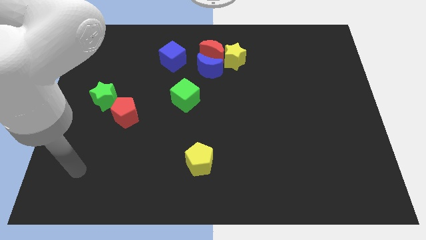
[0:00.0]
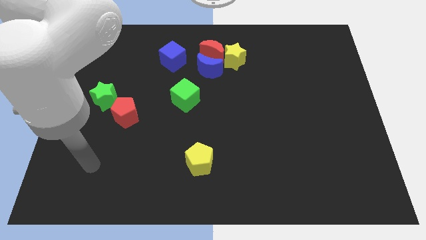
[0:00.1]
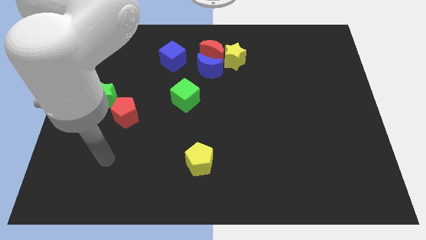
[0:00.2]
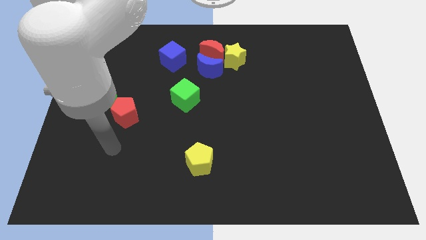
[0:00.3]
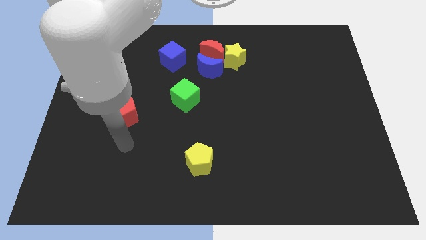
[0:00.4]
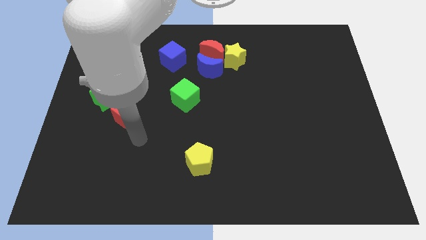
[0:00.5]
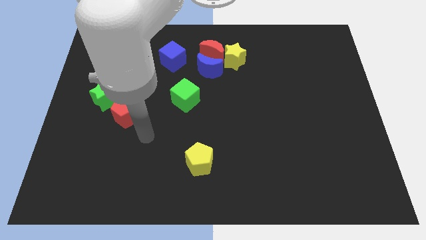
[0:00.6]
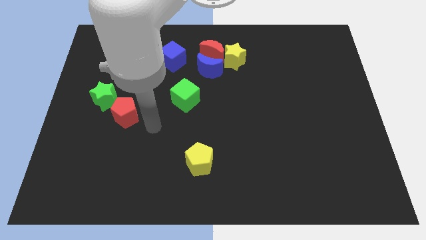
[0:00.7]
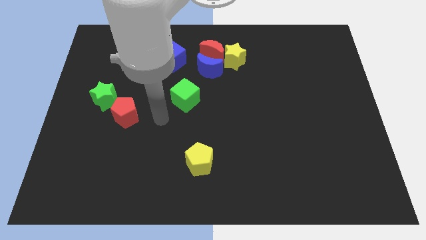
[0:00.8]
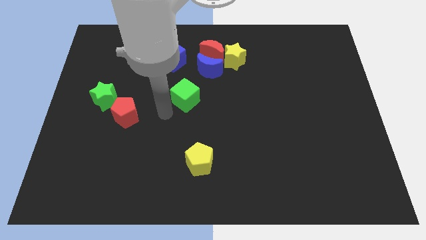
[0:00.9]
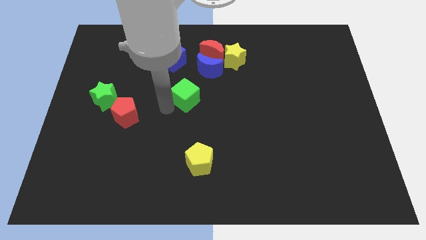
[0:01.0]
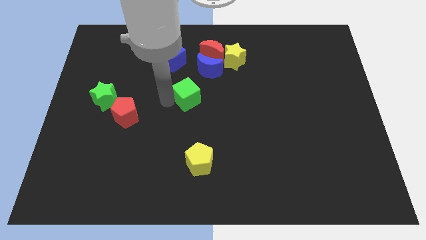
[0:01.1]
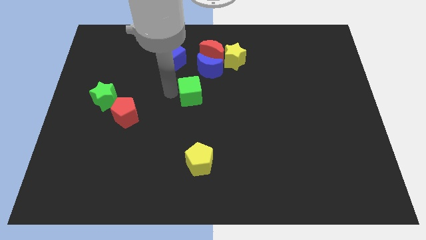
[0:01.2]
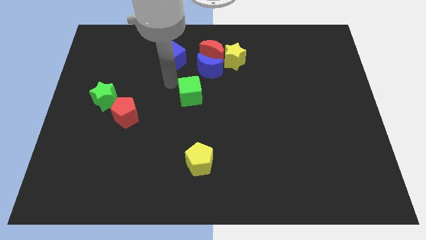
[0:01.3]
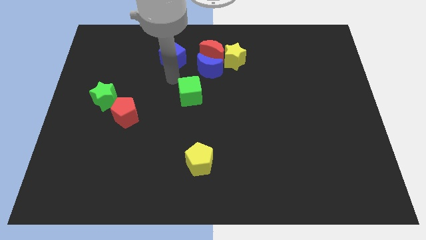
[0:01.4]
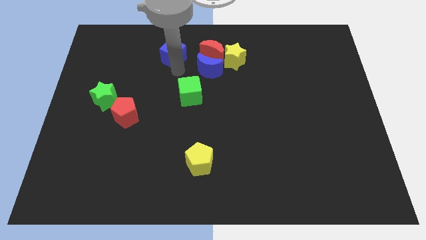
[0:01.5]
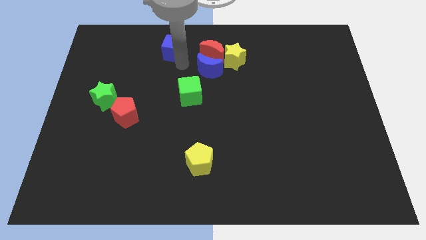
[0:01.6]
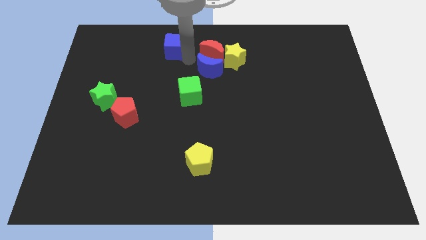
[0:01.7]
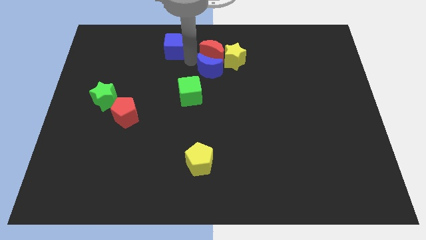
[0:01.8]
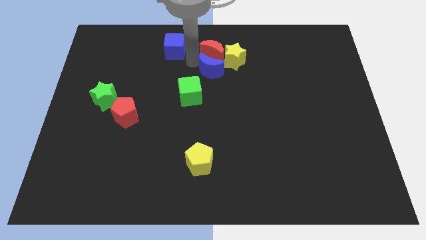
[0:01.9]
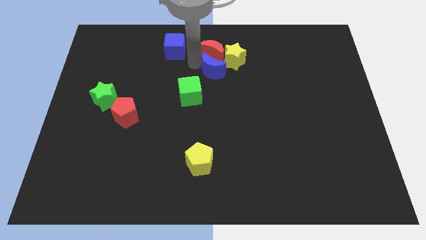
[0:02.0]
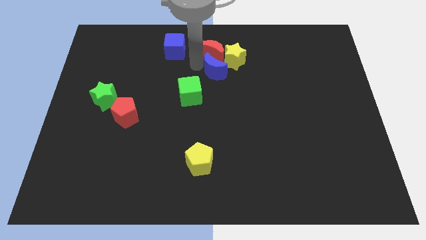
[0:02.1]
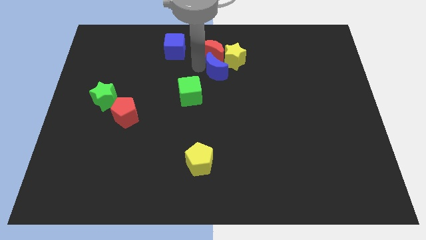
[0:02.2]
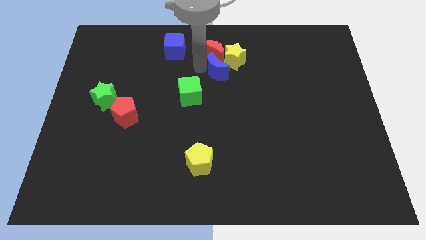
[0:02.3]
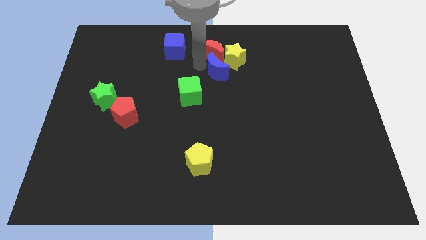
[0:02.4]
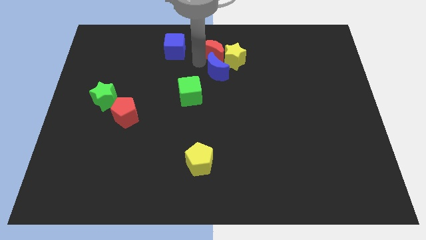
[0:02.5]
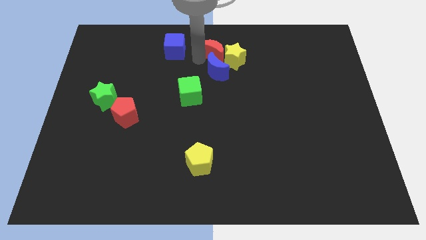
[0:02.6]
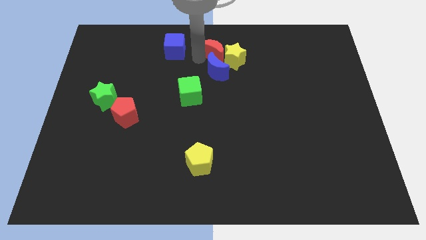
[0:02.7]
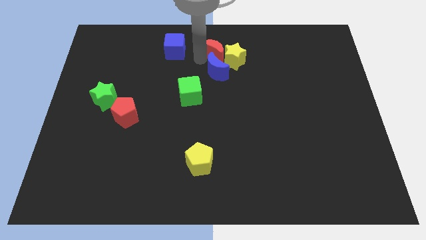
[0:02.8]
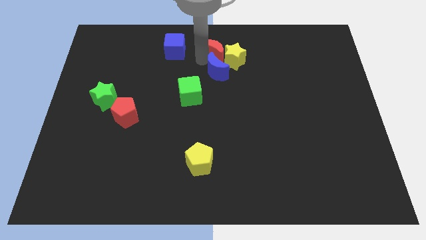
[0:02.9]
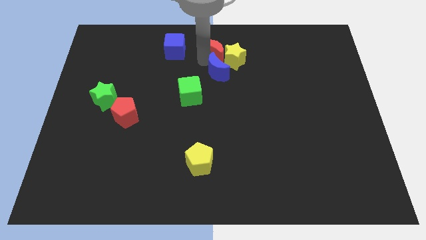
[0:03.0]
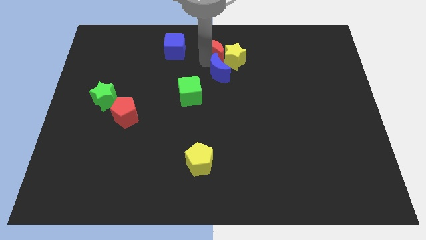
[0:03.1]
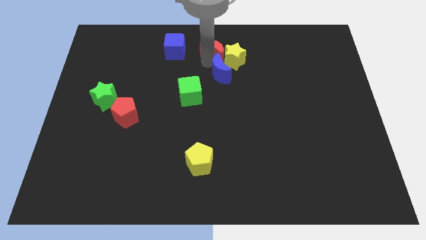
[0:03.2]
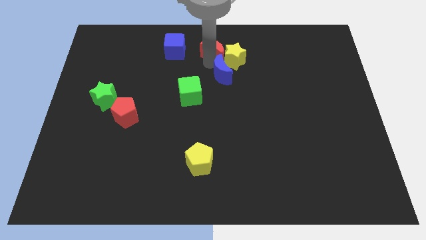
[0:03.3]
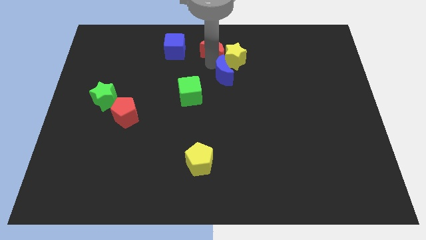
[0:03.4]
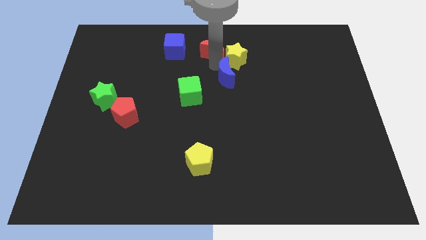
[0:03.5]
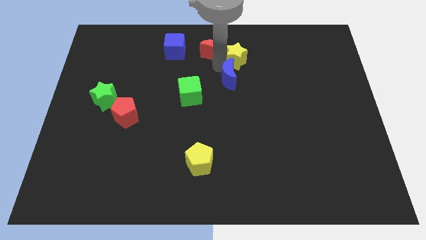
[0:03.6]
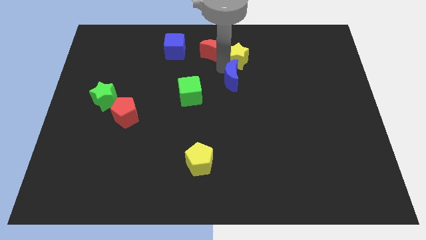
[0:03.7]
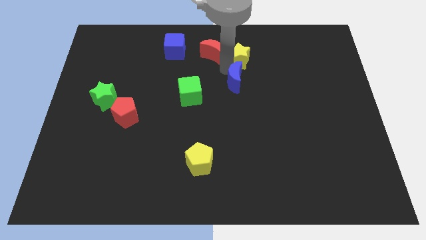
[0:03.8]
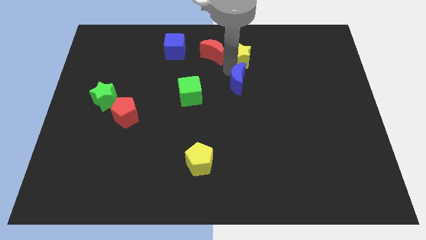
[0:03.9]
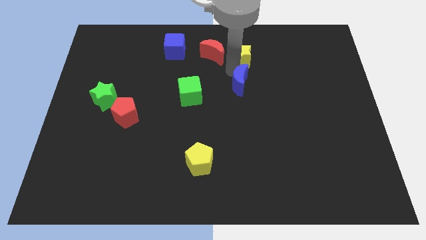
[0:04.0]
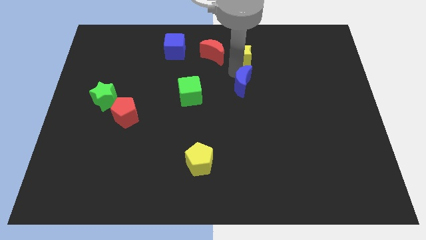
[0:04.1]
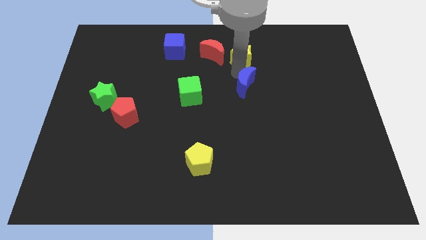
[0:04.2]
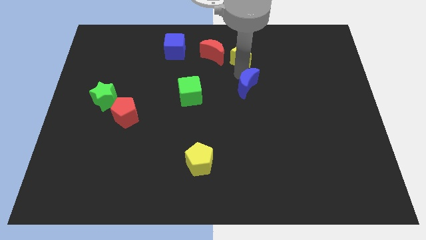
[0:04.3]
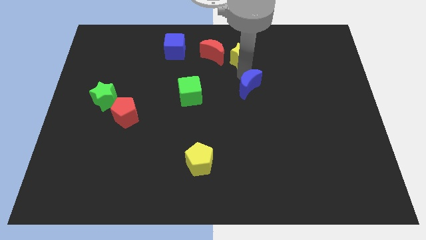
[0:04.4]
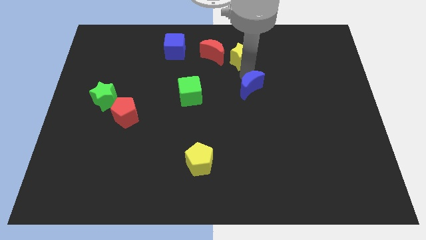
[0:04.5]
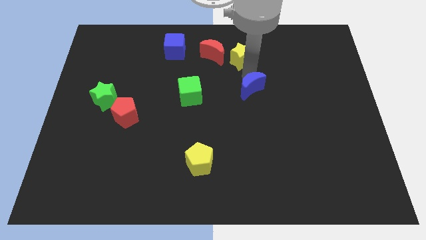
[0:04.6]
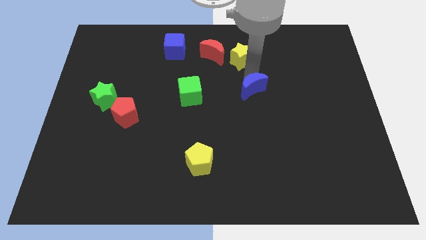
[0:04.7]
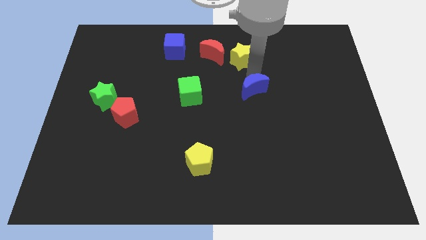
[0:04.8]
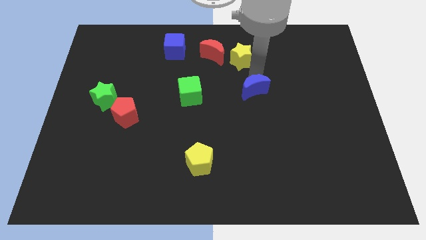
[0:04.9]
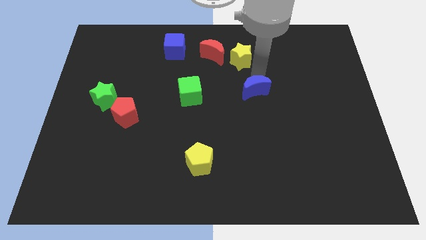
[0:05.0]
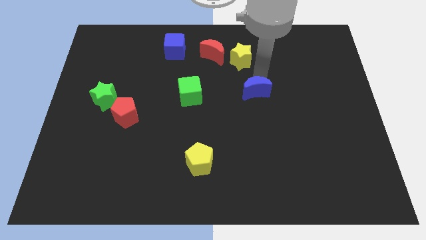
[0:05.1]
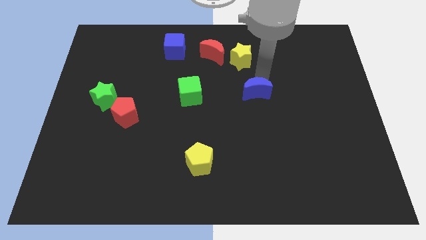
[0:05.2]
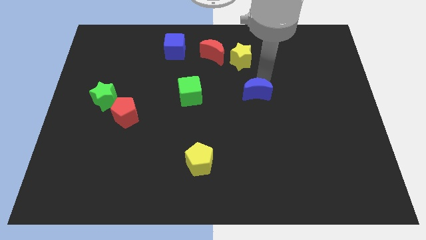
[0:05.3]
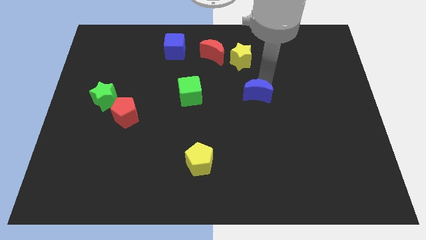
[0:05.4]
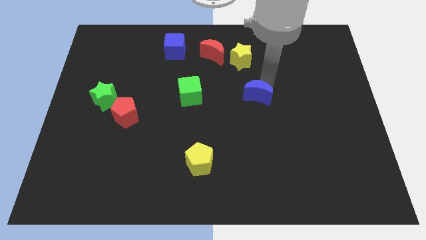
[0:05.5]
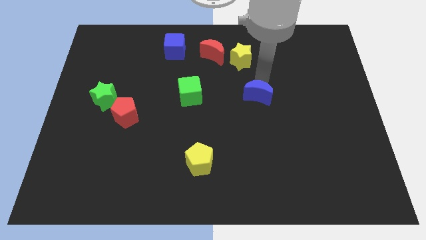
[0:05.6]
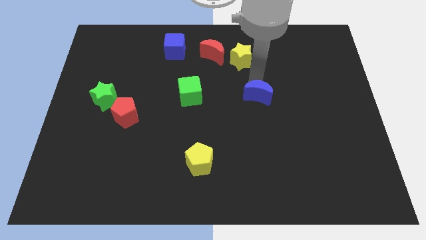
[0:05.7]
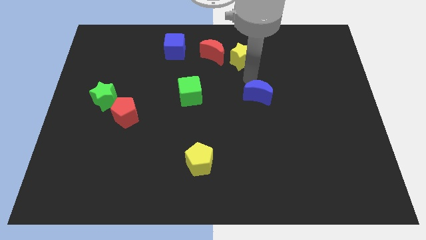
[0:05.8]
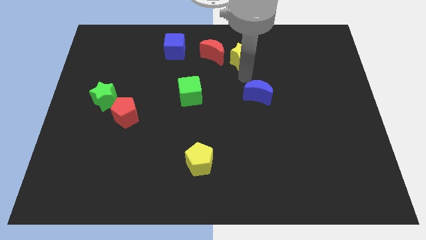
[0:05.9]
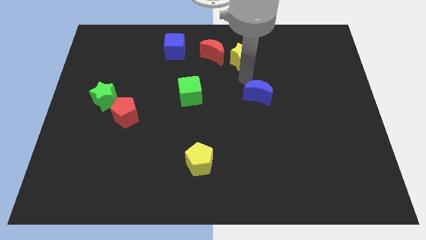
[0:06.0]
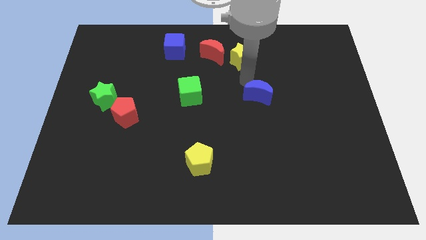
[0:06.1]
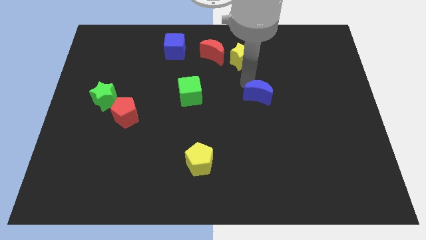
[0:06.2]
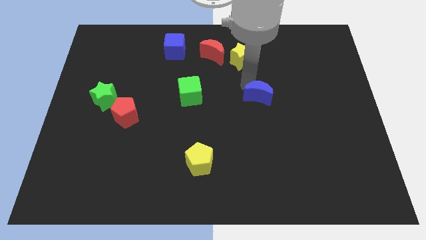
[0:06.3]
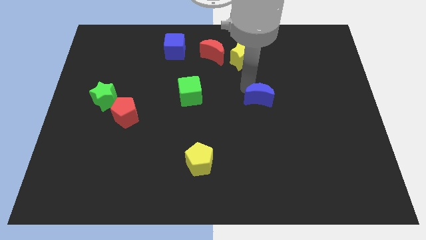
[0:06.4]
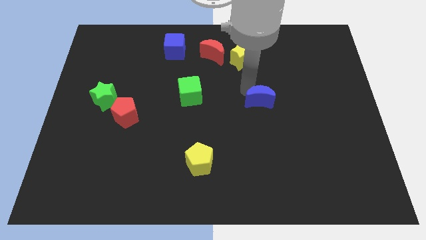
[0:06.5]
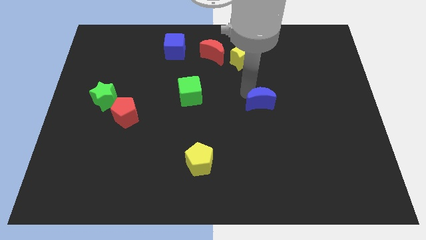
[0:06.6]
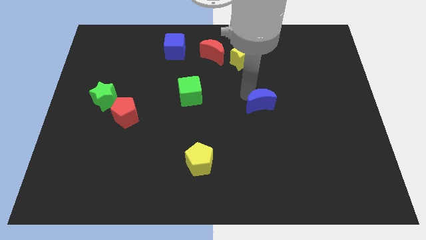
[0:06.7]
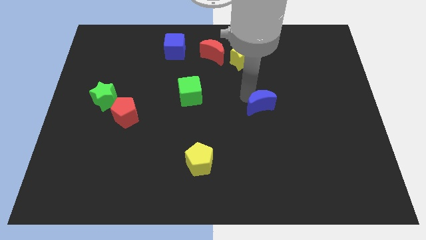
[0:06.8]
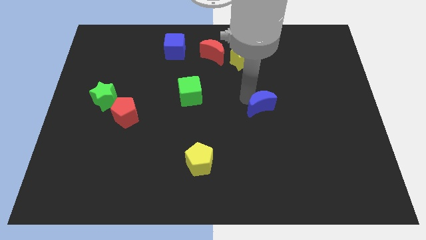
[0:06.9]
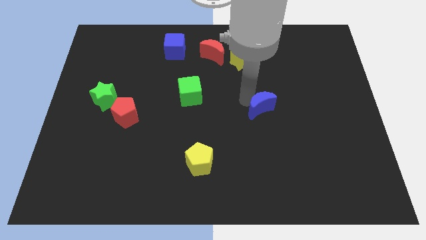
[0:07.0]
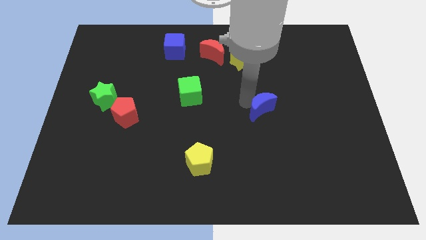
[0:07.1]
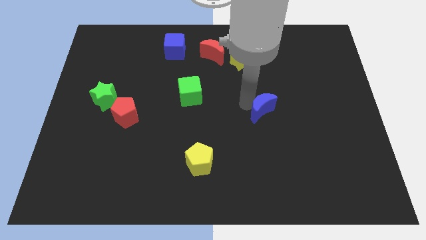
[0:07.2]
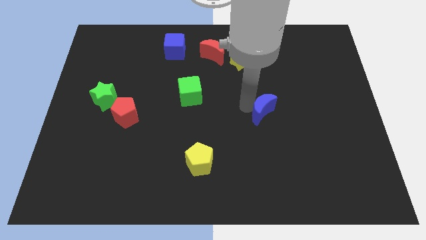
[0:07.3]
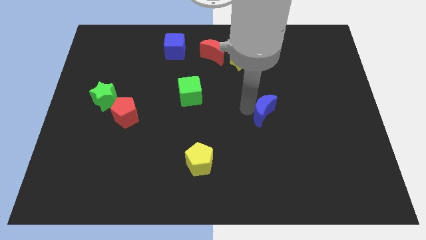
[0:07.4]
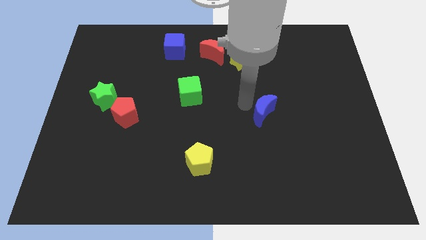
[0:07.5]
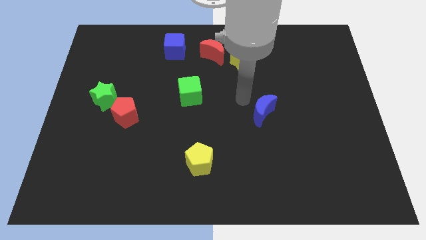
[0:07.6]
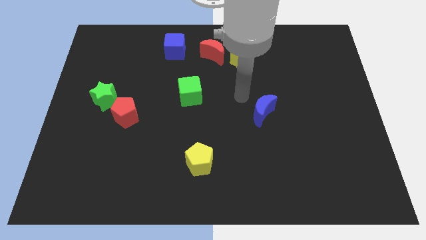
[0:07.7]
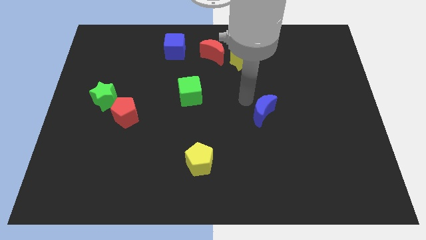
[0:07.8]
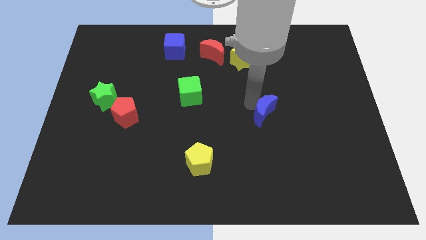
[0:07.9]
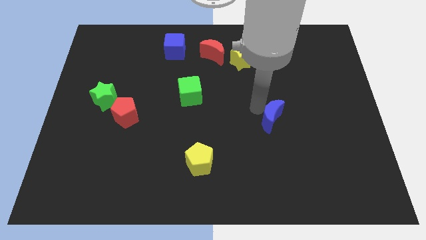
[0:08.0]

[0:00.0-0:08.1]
slide the blue moon down and right diagonally
